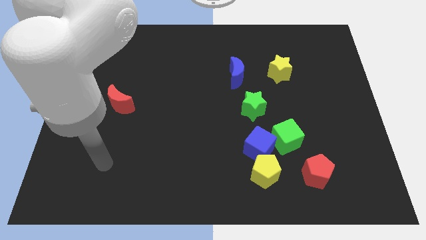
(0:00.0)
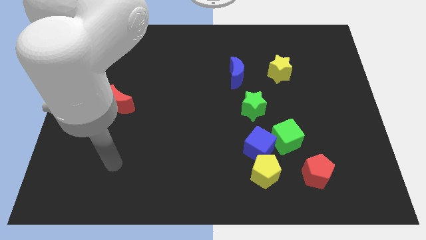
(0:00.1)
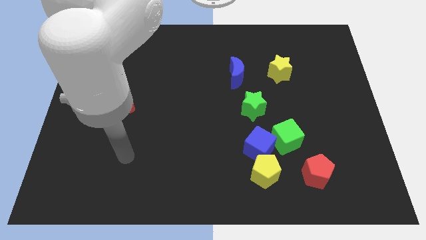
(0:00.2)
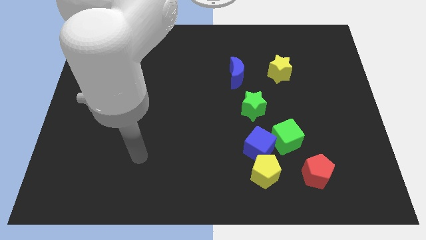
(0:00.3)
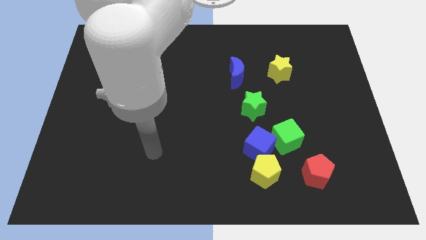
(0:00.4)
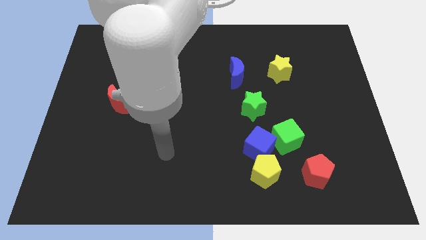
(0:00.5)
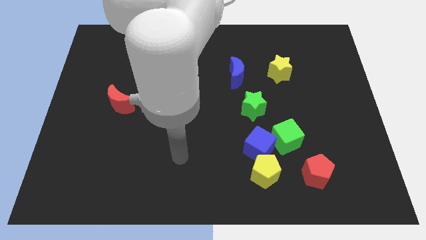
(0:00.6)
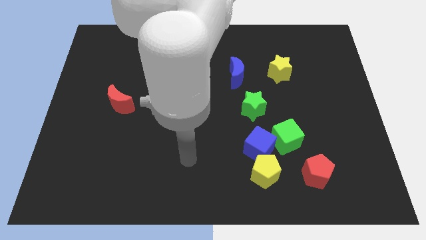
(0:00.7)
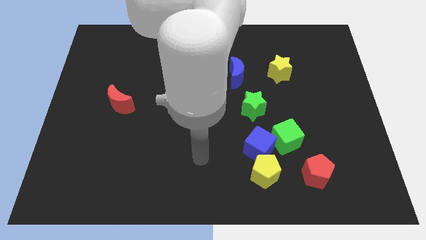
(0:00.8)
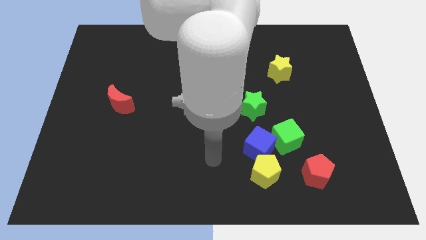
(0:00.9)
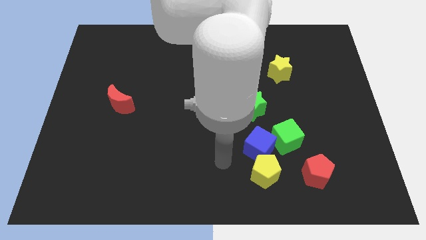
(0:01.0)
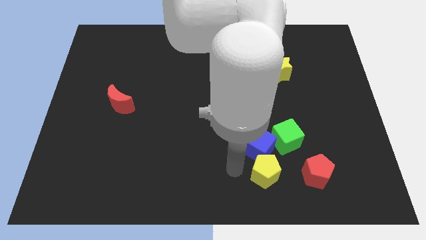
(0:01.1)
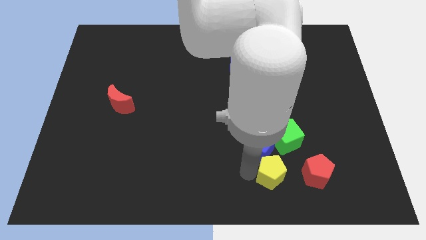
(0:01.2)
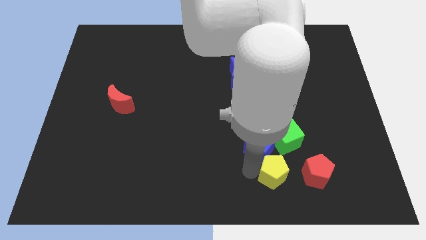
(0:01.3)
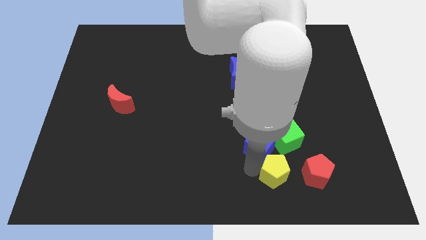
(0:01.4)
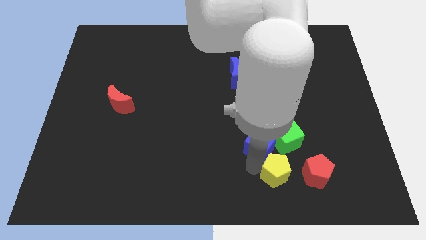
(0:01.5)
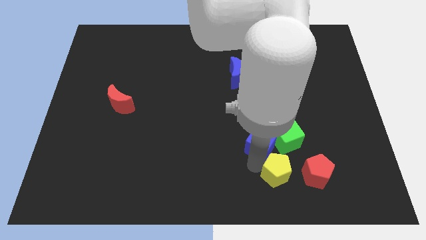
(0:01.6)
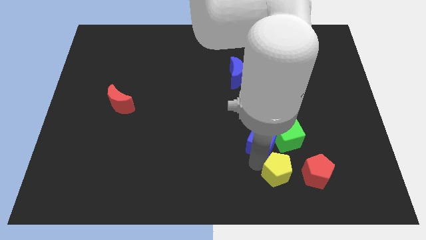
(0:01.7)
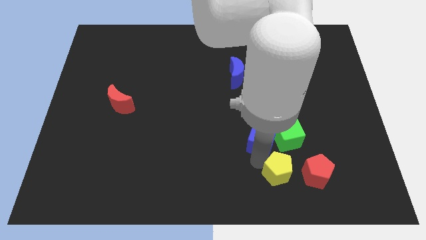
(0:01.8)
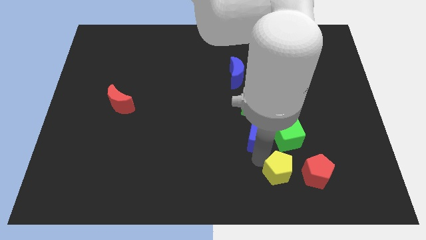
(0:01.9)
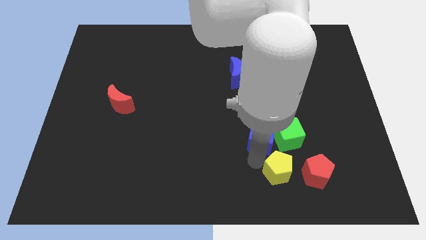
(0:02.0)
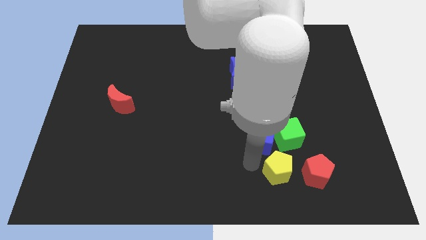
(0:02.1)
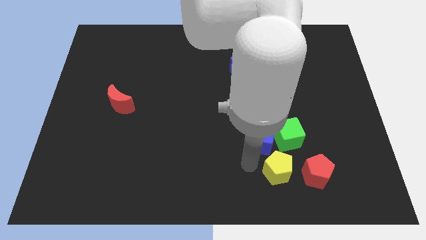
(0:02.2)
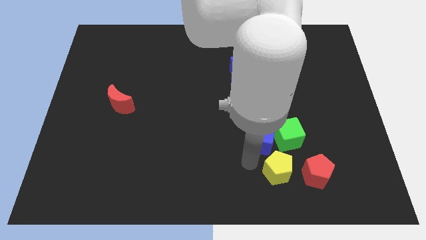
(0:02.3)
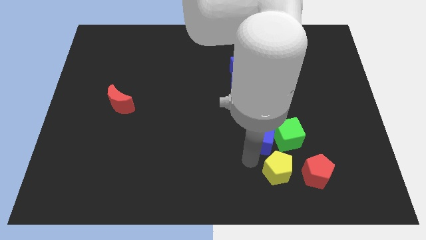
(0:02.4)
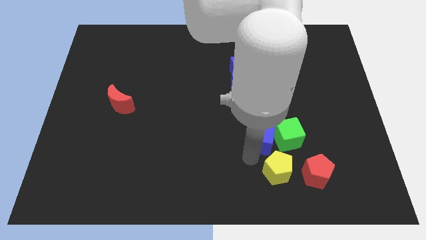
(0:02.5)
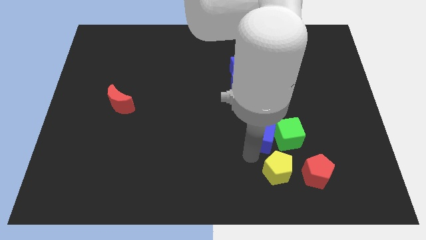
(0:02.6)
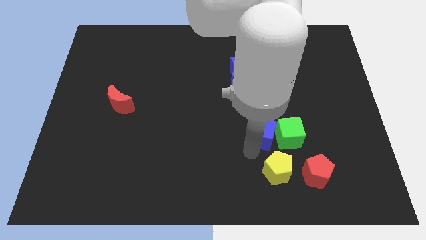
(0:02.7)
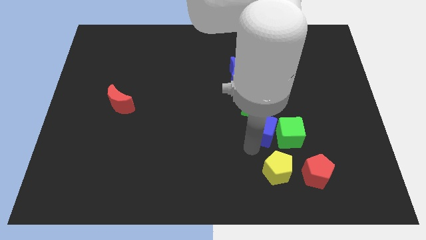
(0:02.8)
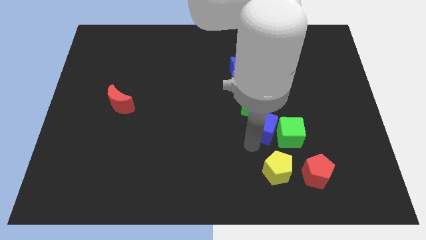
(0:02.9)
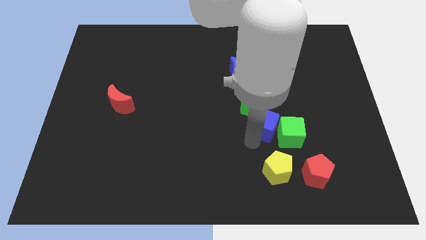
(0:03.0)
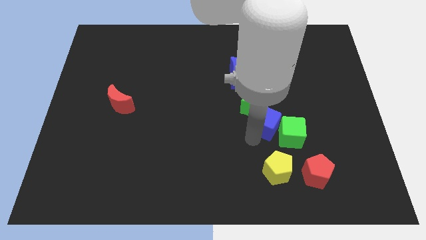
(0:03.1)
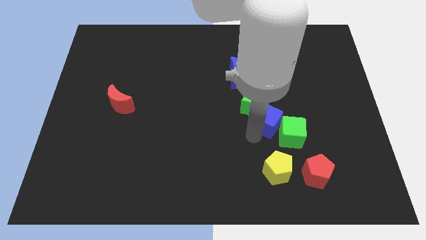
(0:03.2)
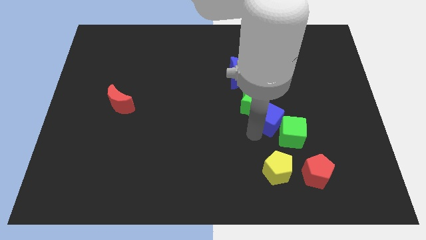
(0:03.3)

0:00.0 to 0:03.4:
push the blue cube up a little

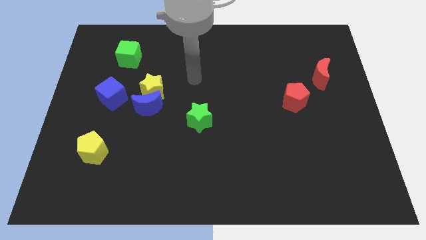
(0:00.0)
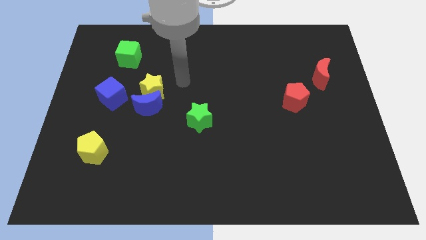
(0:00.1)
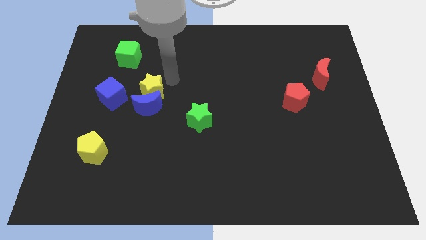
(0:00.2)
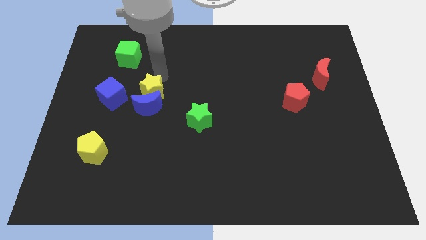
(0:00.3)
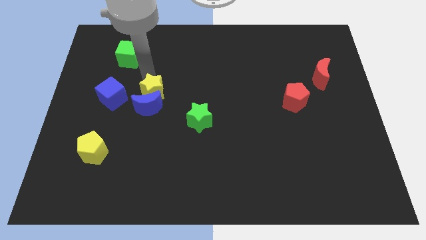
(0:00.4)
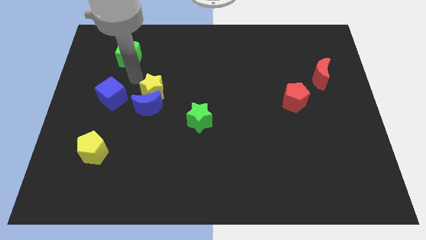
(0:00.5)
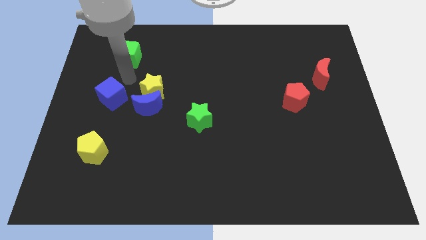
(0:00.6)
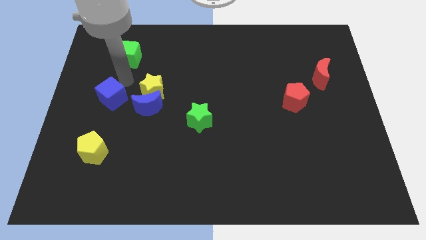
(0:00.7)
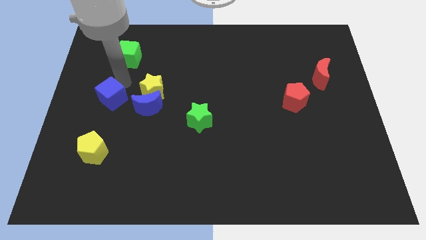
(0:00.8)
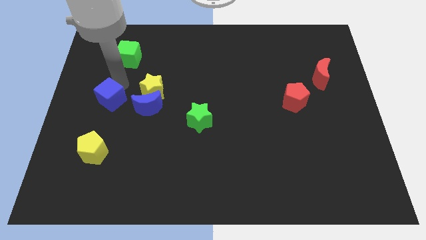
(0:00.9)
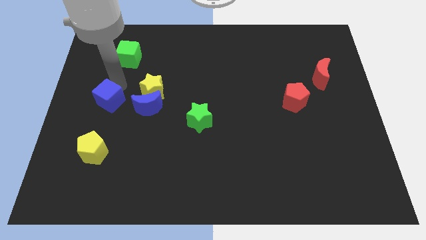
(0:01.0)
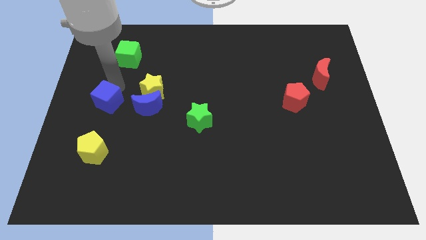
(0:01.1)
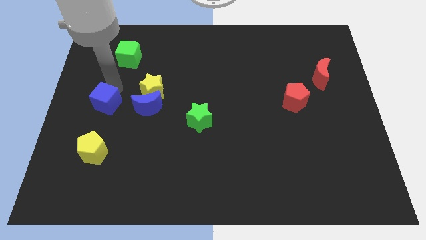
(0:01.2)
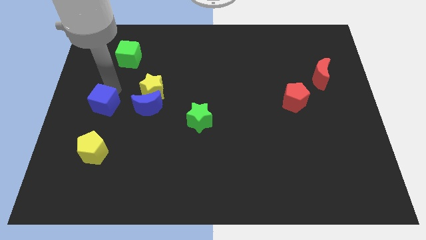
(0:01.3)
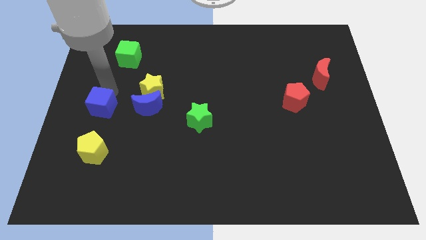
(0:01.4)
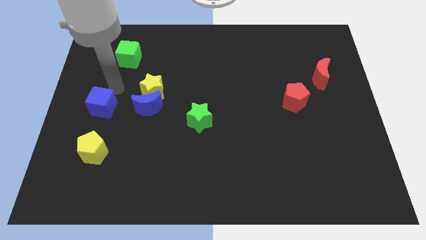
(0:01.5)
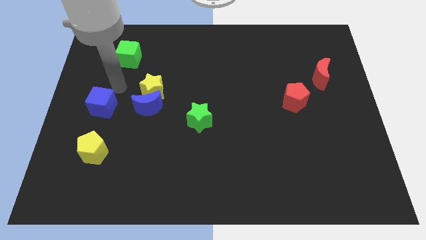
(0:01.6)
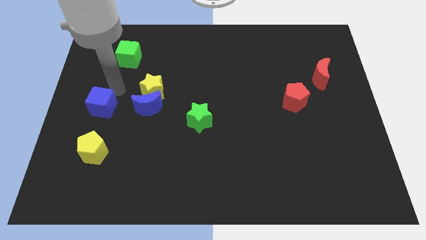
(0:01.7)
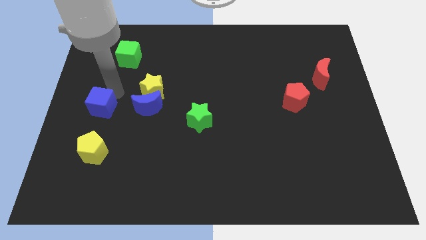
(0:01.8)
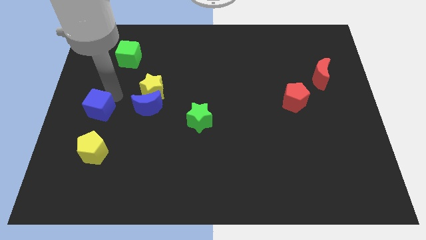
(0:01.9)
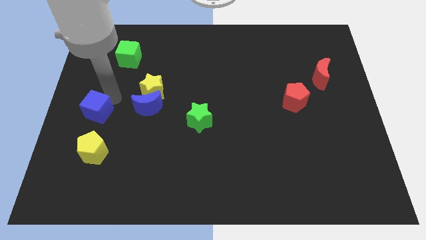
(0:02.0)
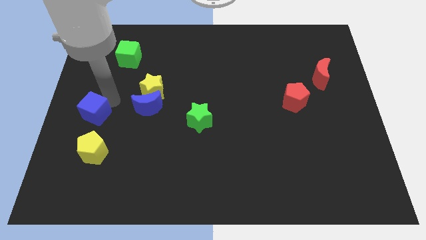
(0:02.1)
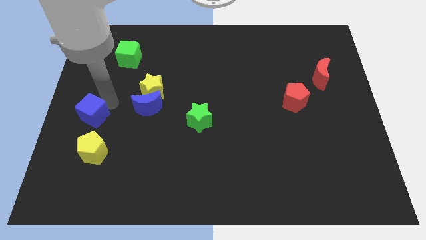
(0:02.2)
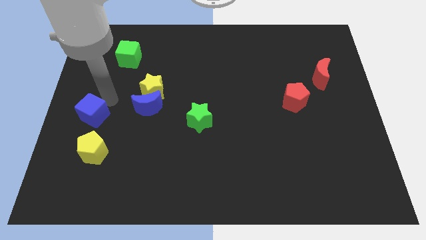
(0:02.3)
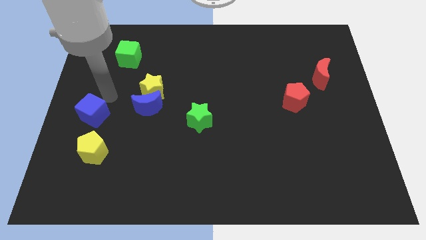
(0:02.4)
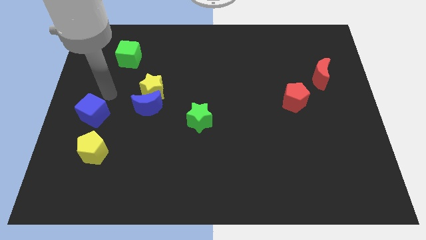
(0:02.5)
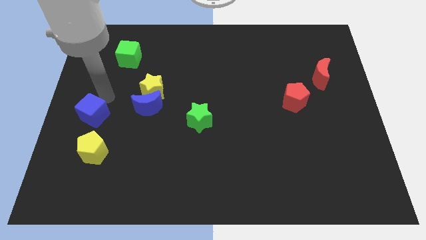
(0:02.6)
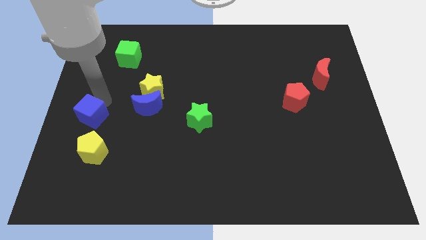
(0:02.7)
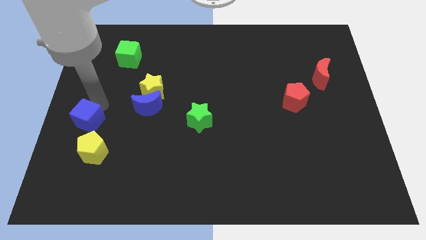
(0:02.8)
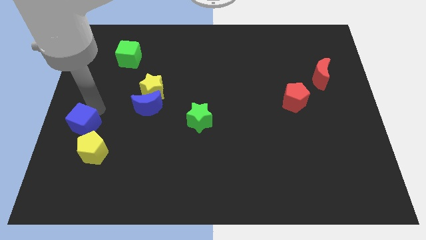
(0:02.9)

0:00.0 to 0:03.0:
push the blue cube downwards slightly

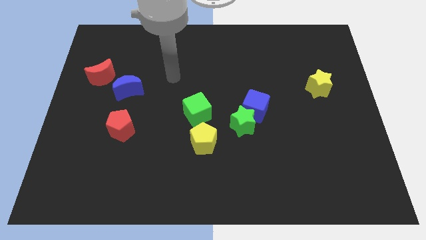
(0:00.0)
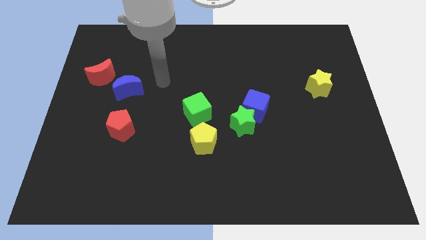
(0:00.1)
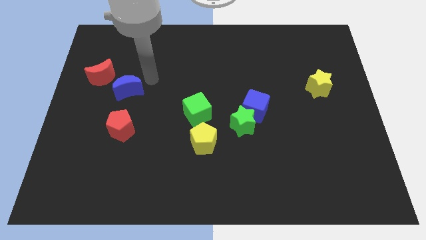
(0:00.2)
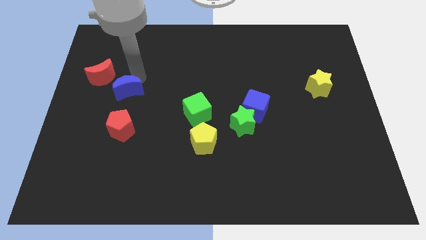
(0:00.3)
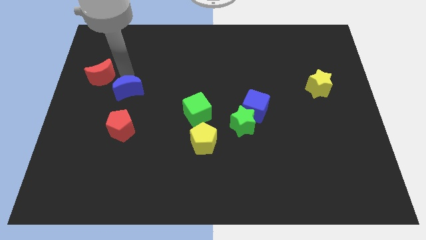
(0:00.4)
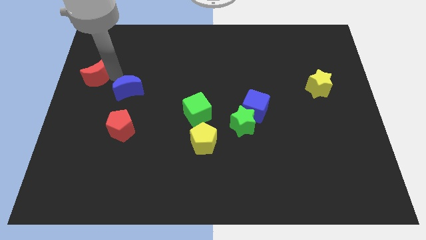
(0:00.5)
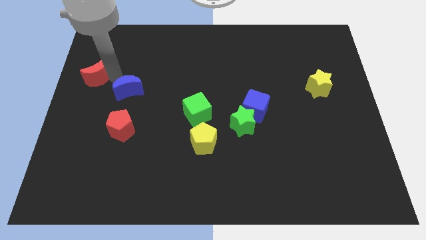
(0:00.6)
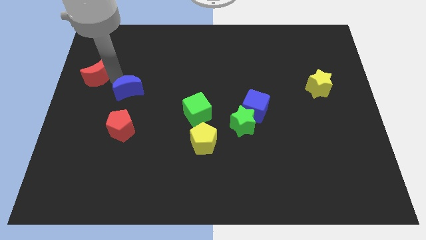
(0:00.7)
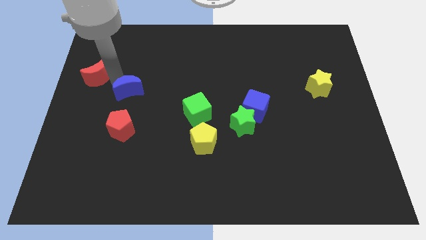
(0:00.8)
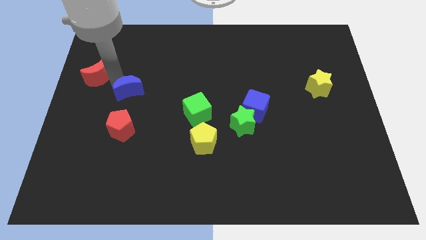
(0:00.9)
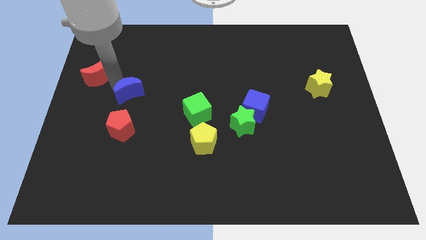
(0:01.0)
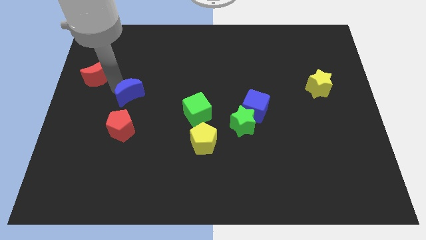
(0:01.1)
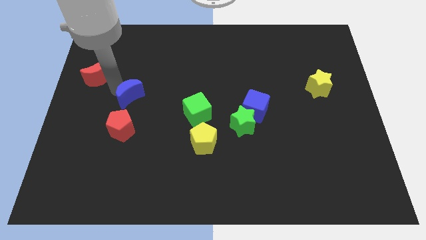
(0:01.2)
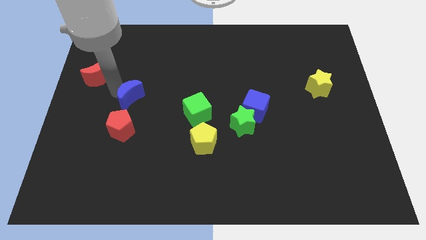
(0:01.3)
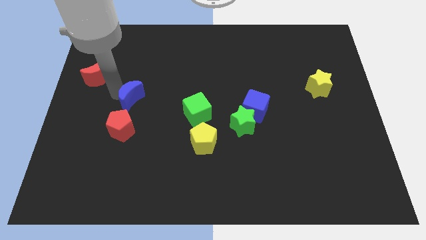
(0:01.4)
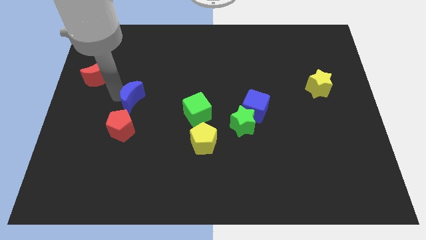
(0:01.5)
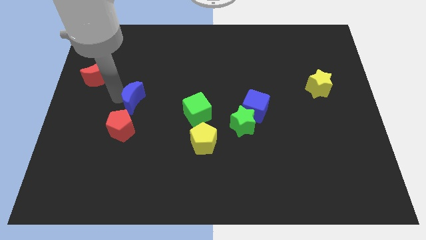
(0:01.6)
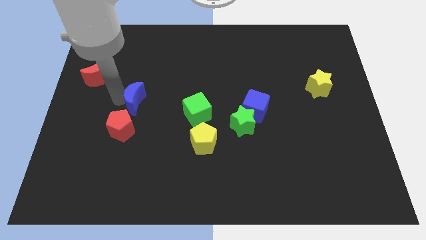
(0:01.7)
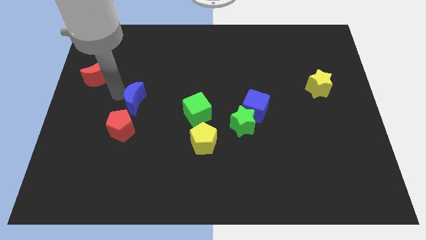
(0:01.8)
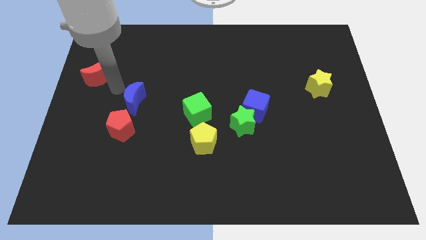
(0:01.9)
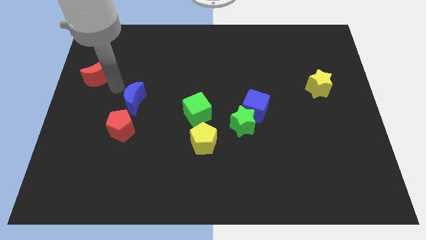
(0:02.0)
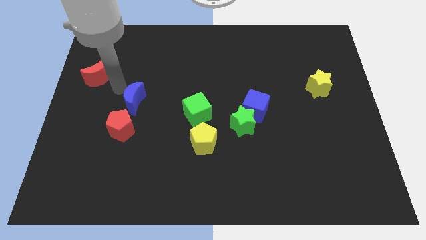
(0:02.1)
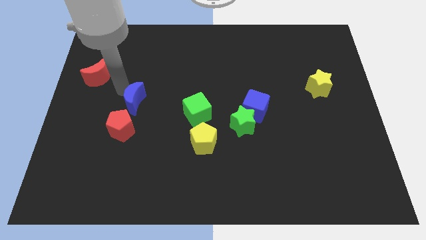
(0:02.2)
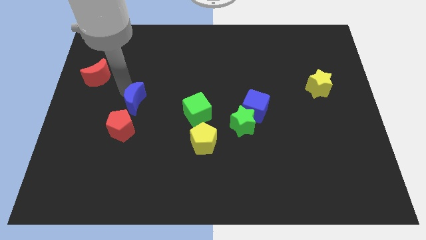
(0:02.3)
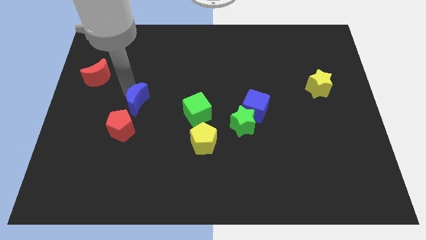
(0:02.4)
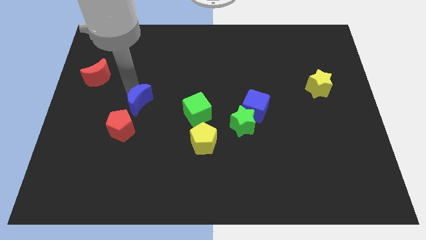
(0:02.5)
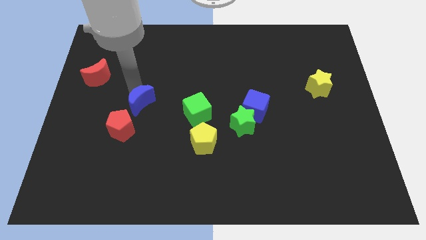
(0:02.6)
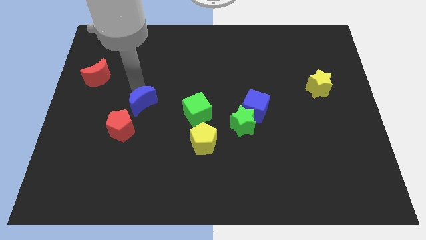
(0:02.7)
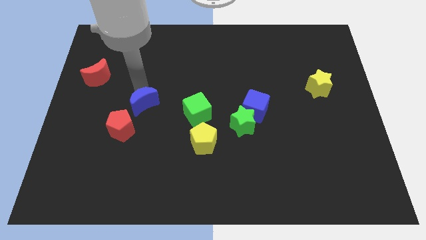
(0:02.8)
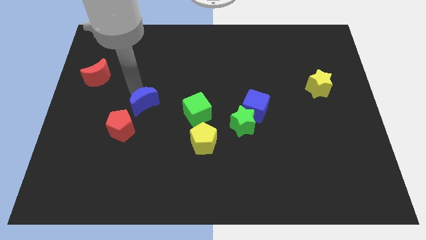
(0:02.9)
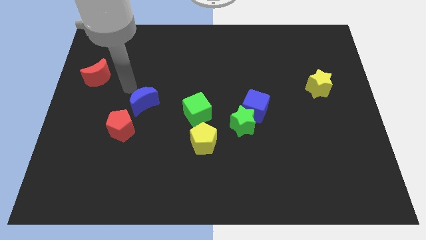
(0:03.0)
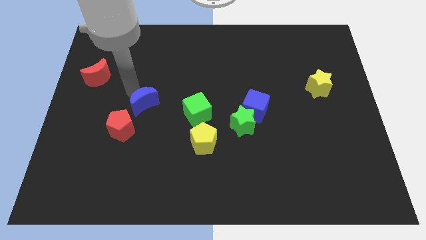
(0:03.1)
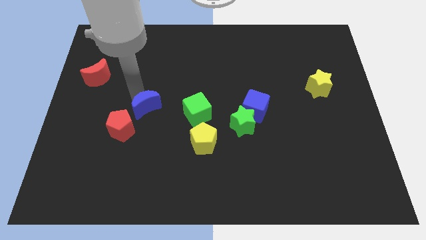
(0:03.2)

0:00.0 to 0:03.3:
slightly slide the blue moon downwards and to the right
